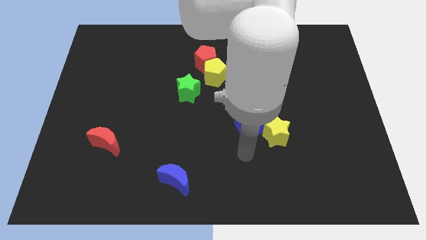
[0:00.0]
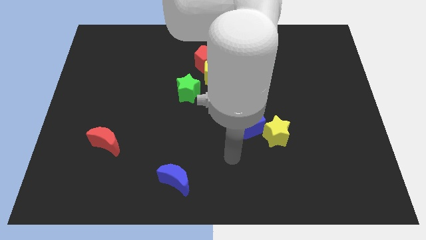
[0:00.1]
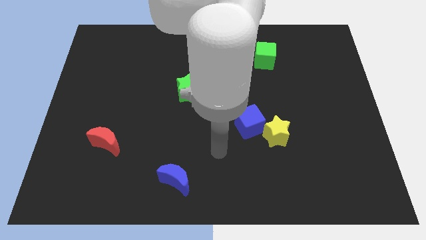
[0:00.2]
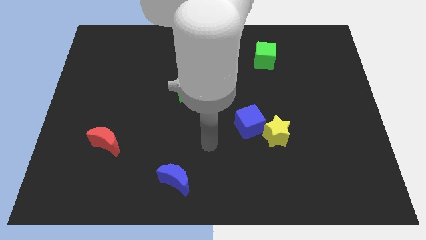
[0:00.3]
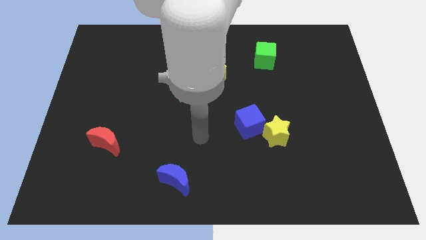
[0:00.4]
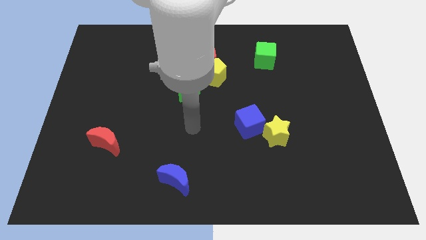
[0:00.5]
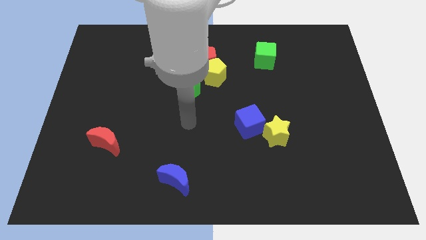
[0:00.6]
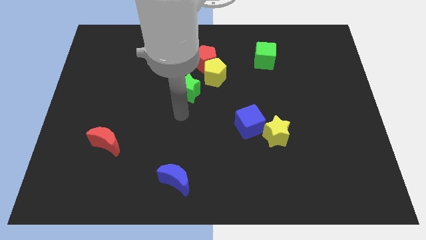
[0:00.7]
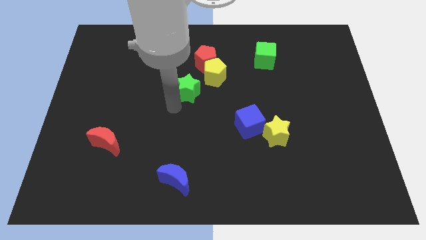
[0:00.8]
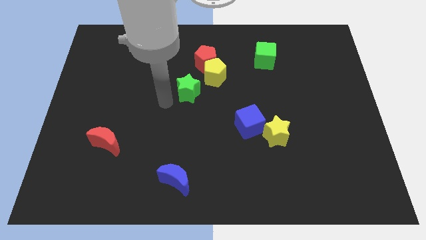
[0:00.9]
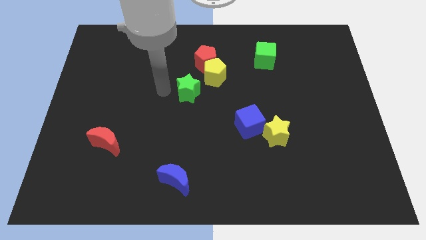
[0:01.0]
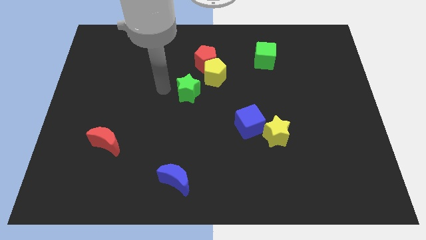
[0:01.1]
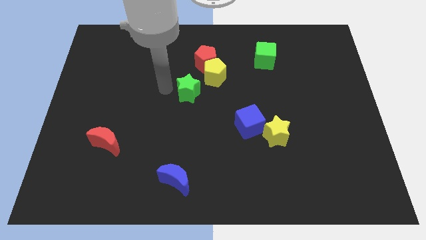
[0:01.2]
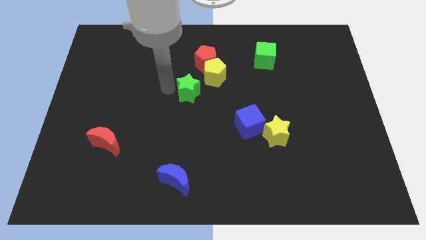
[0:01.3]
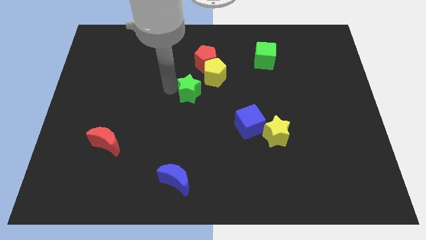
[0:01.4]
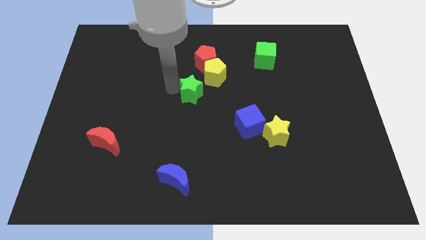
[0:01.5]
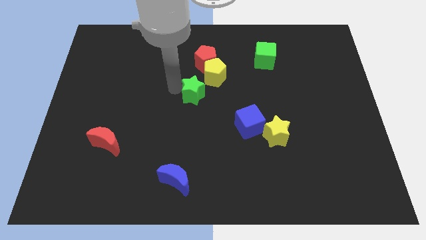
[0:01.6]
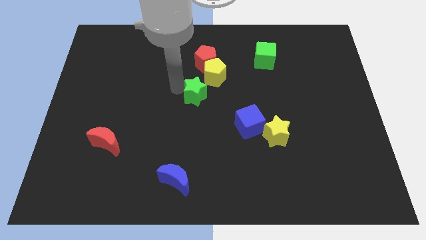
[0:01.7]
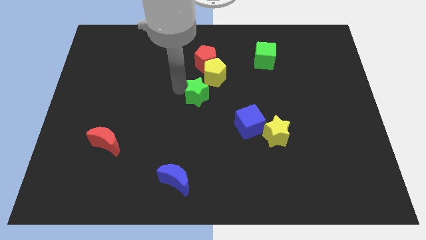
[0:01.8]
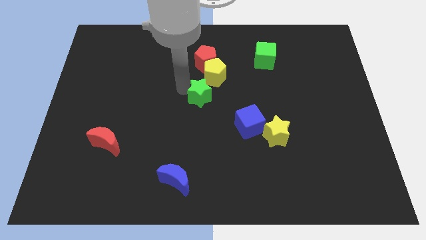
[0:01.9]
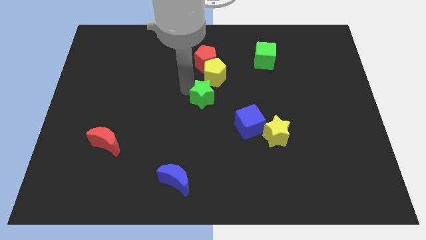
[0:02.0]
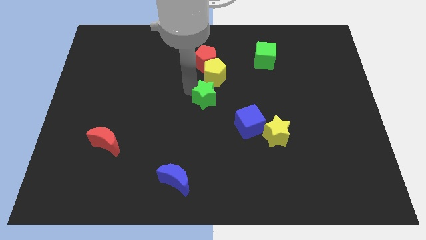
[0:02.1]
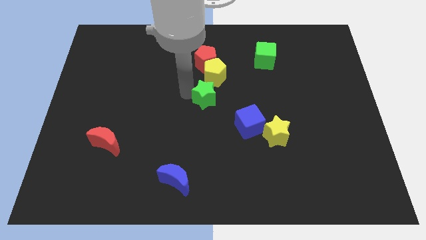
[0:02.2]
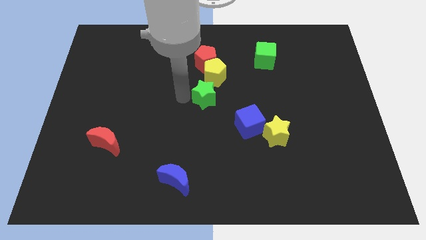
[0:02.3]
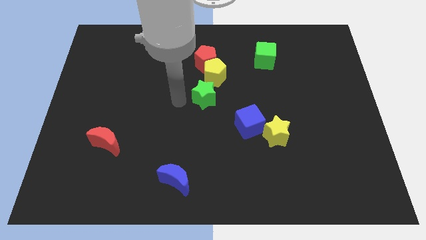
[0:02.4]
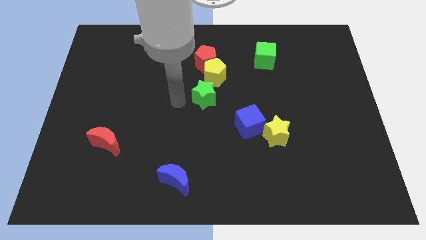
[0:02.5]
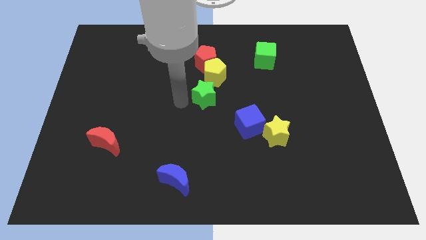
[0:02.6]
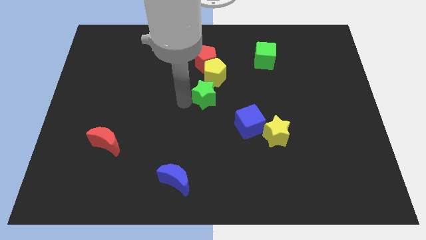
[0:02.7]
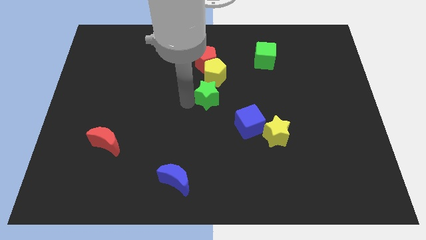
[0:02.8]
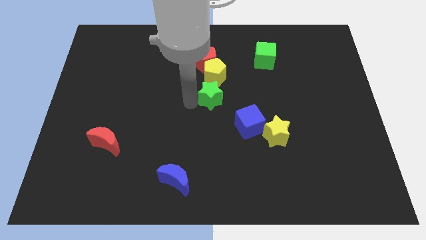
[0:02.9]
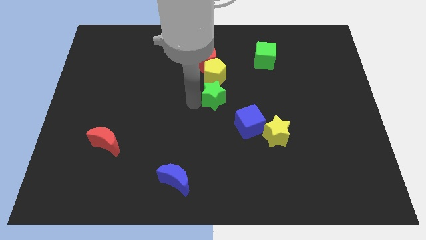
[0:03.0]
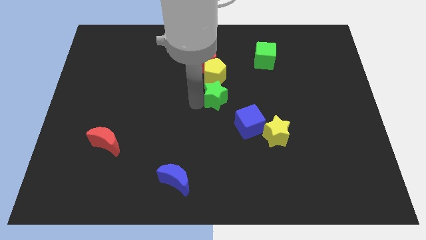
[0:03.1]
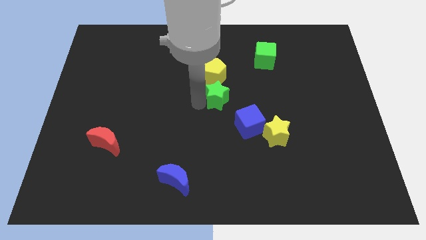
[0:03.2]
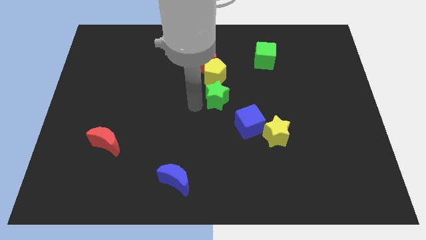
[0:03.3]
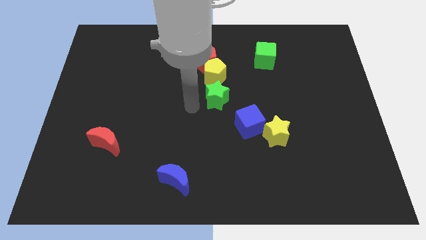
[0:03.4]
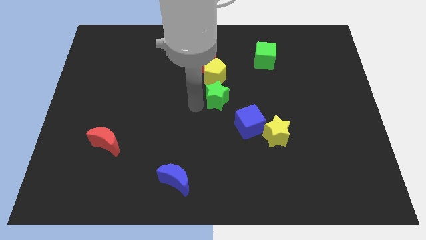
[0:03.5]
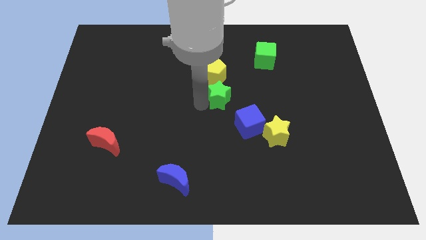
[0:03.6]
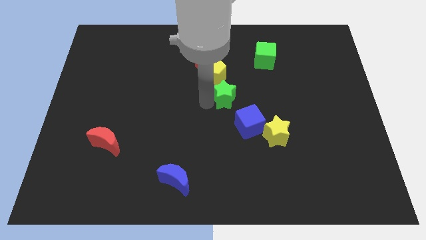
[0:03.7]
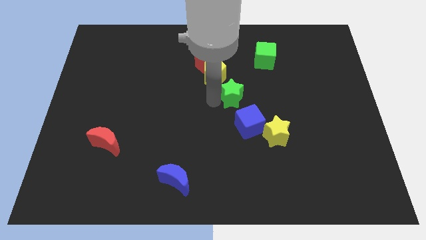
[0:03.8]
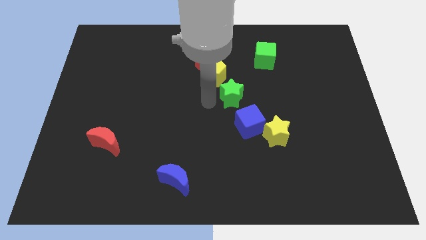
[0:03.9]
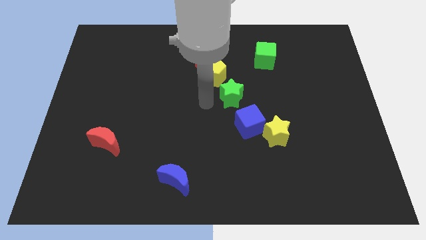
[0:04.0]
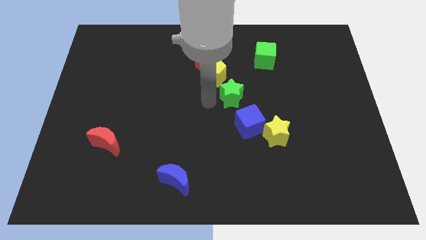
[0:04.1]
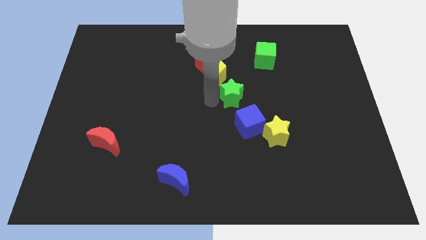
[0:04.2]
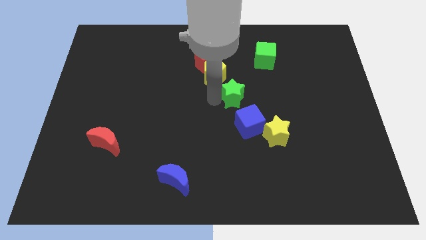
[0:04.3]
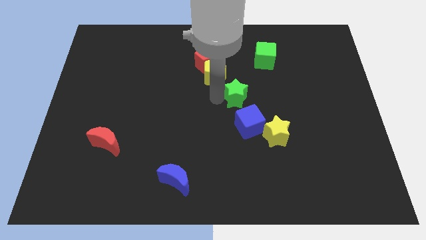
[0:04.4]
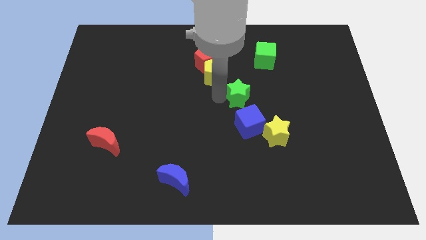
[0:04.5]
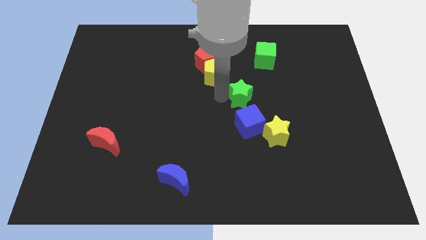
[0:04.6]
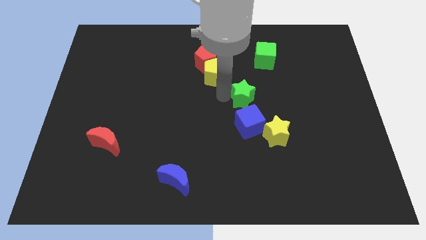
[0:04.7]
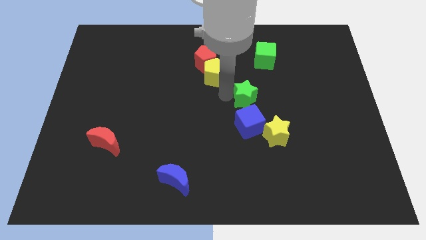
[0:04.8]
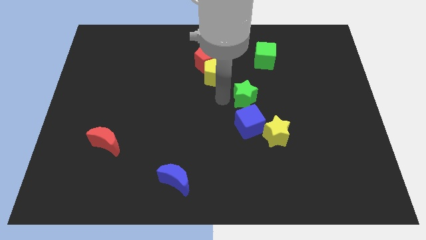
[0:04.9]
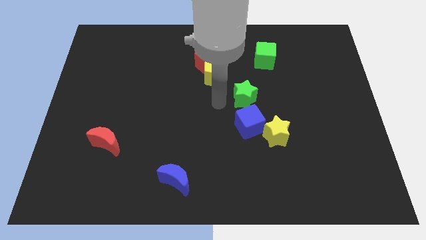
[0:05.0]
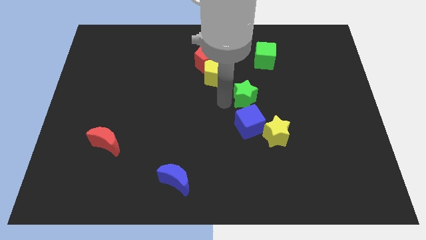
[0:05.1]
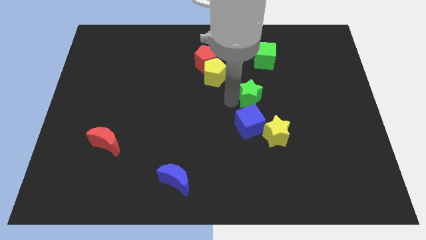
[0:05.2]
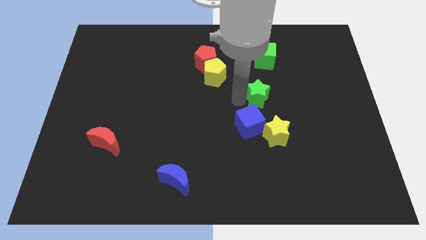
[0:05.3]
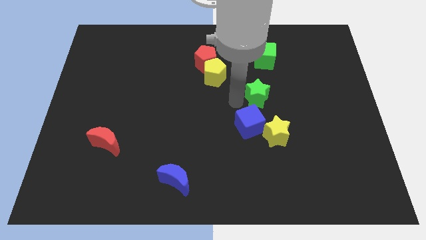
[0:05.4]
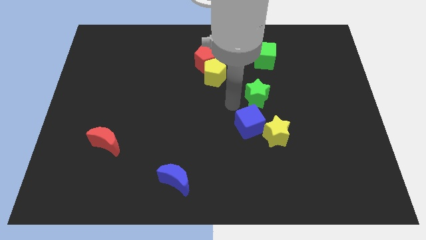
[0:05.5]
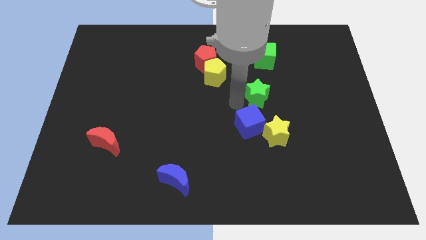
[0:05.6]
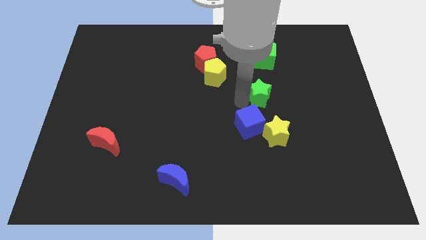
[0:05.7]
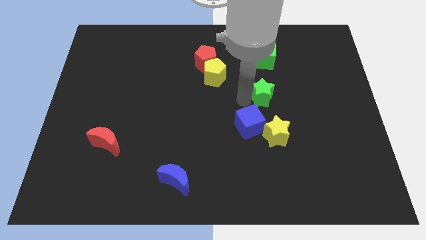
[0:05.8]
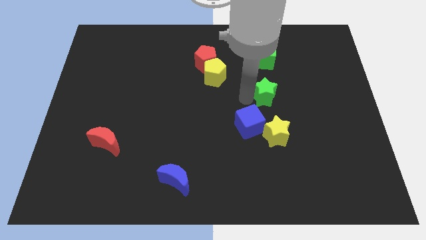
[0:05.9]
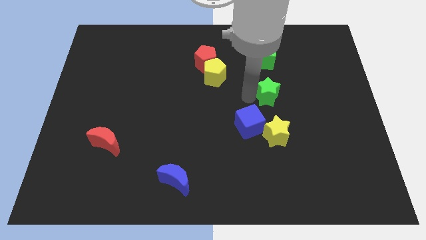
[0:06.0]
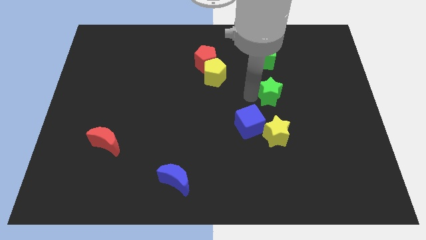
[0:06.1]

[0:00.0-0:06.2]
move the green star to the right

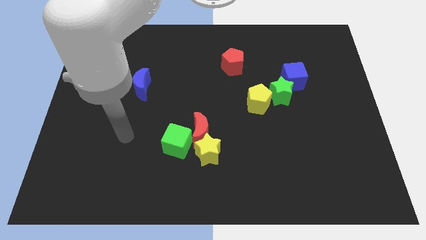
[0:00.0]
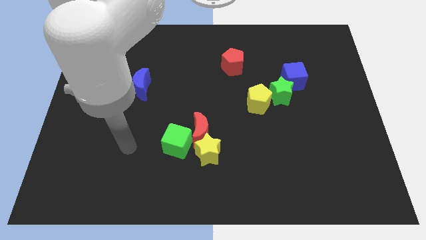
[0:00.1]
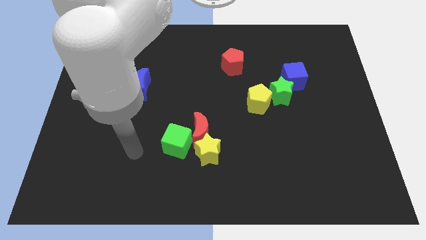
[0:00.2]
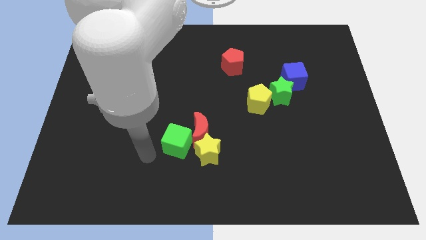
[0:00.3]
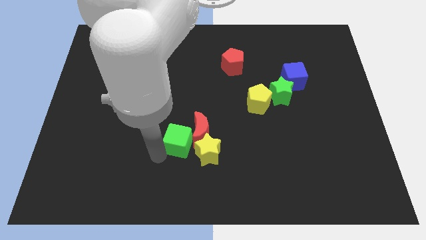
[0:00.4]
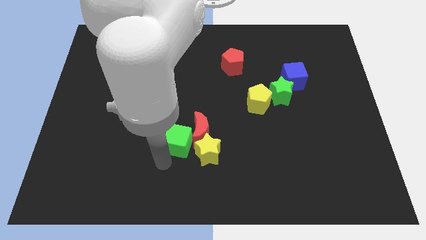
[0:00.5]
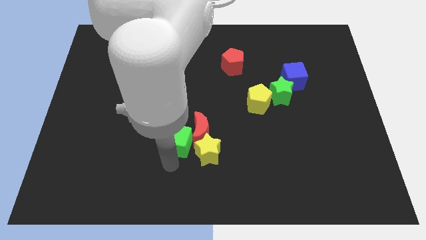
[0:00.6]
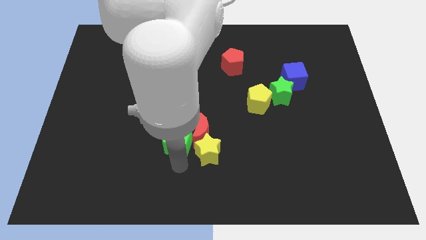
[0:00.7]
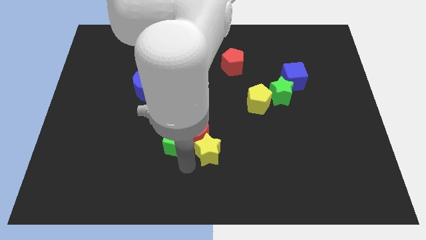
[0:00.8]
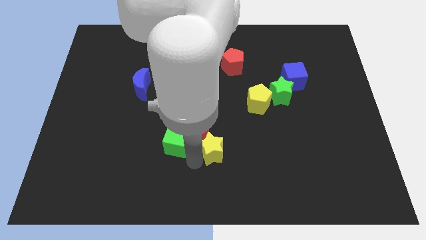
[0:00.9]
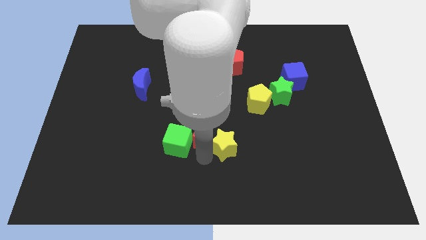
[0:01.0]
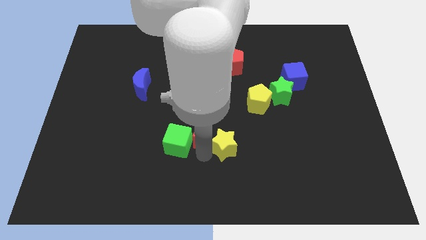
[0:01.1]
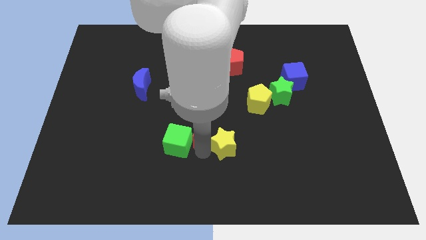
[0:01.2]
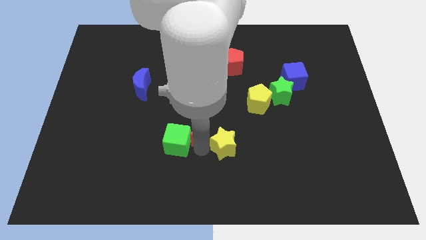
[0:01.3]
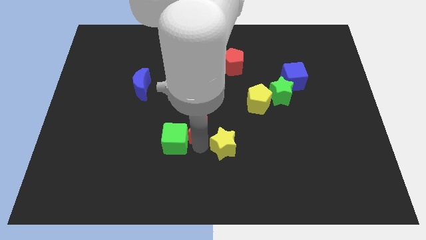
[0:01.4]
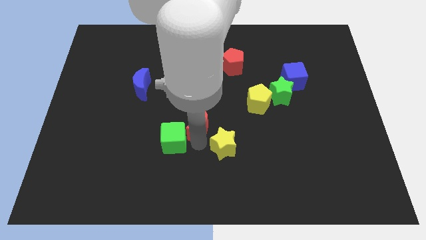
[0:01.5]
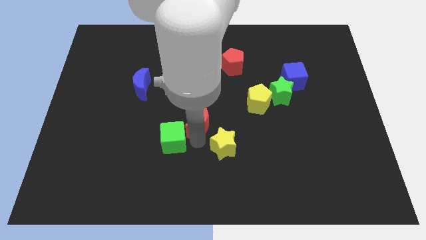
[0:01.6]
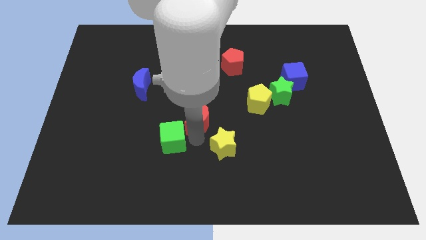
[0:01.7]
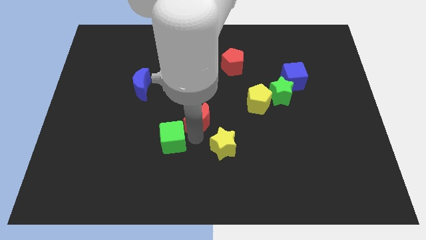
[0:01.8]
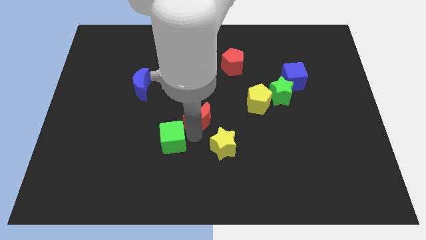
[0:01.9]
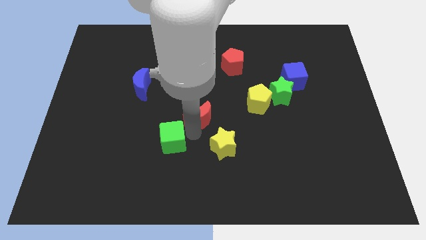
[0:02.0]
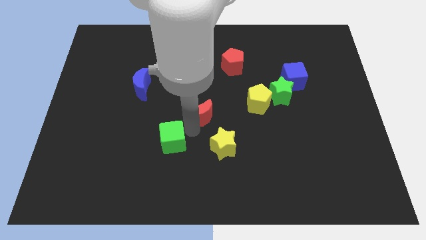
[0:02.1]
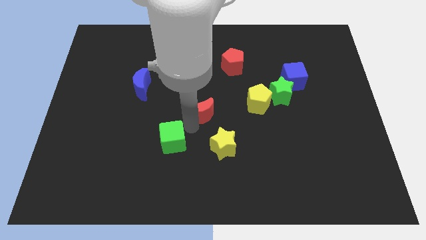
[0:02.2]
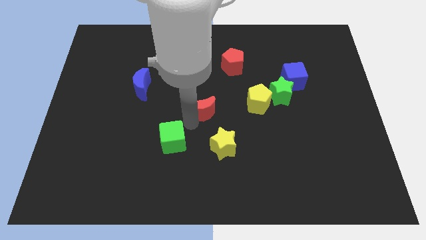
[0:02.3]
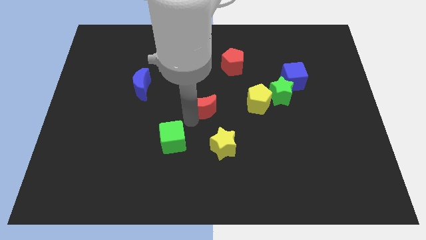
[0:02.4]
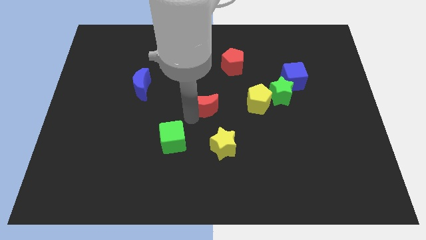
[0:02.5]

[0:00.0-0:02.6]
move the red moon upwards a little
